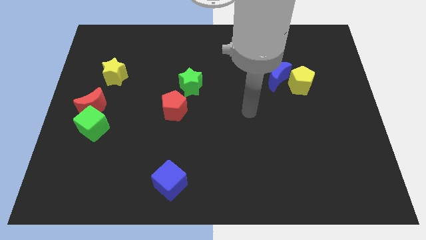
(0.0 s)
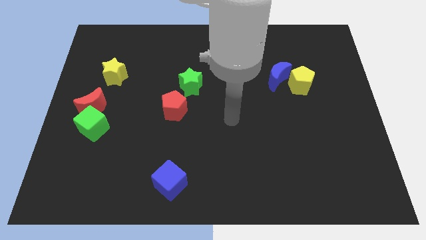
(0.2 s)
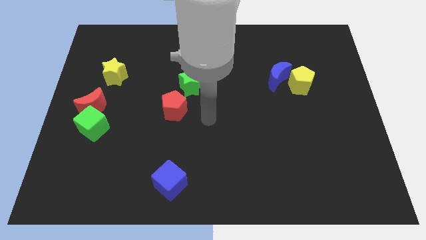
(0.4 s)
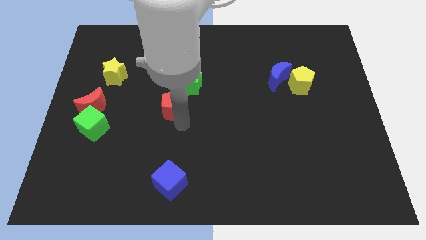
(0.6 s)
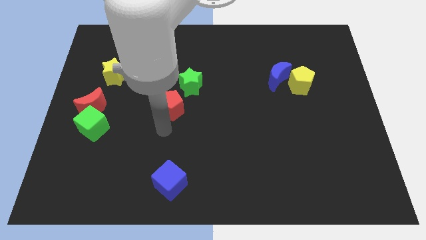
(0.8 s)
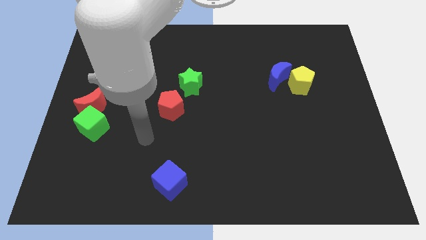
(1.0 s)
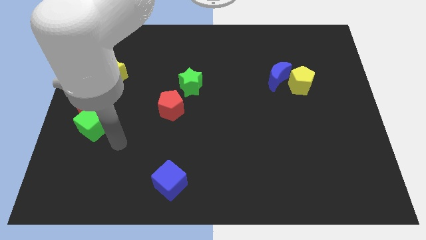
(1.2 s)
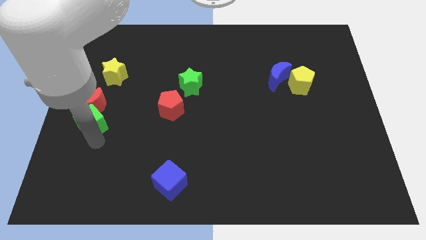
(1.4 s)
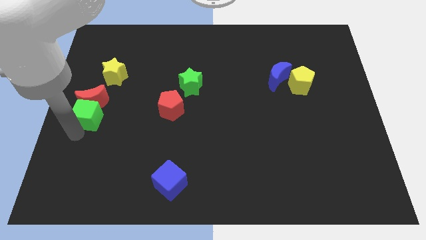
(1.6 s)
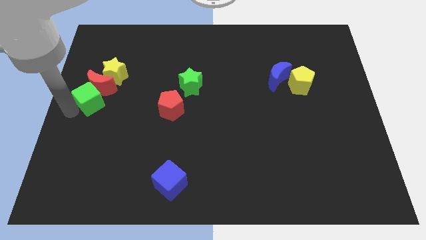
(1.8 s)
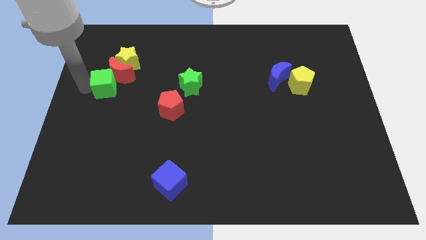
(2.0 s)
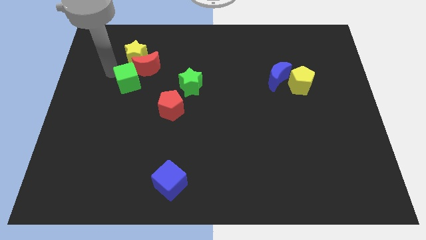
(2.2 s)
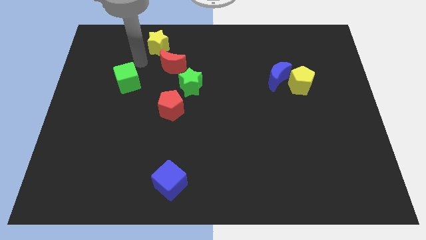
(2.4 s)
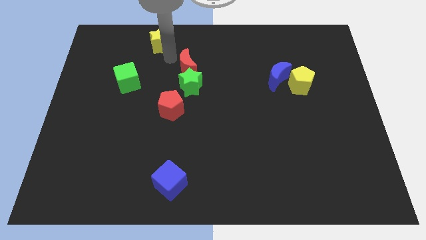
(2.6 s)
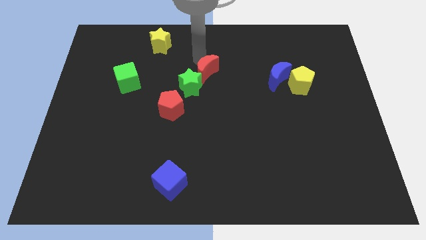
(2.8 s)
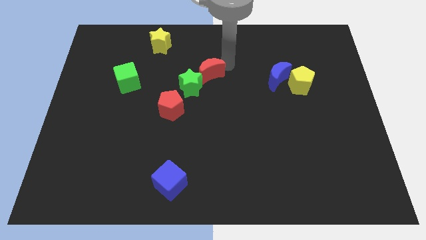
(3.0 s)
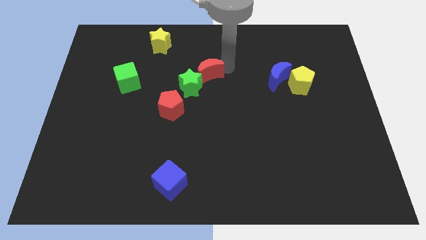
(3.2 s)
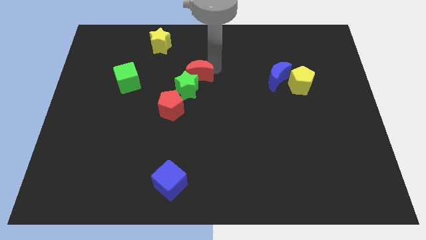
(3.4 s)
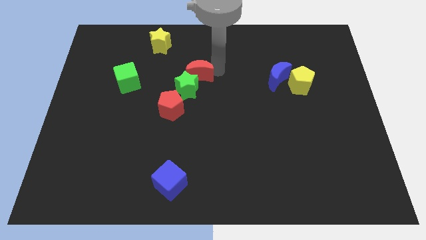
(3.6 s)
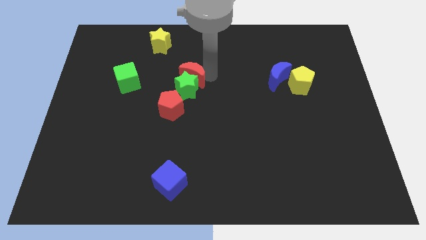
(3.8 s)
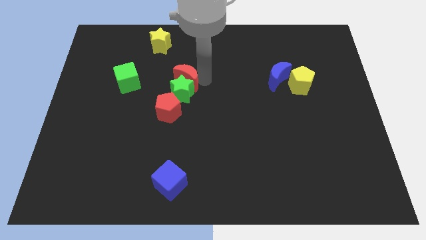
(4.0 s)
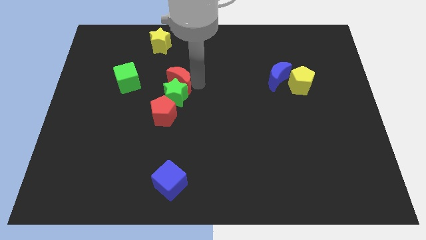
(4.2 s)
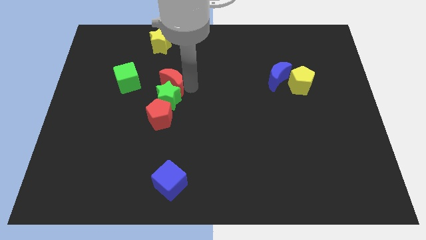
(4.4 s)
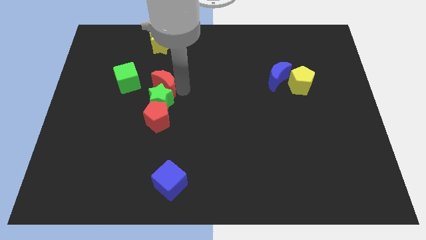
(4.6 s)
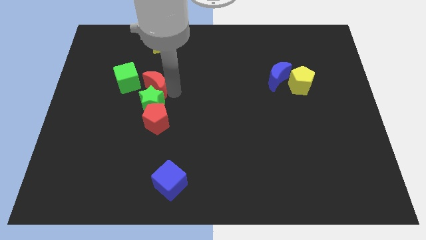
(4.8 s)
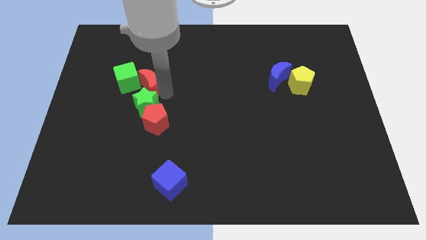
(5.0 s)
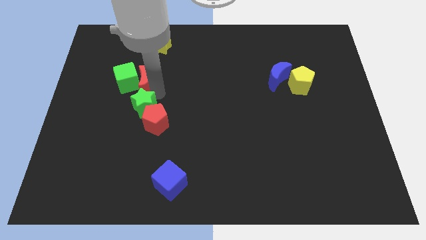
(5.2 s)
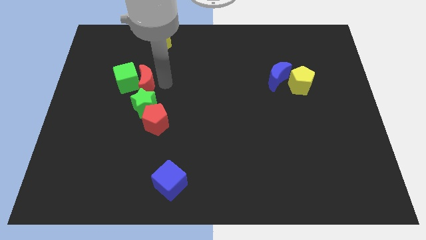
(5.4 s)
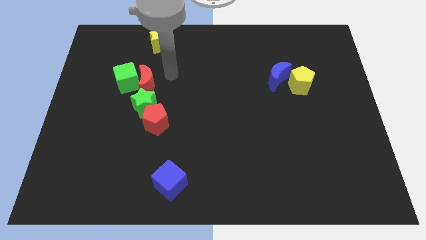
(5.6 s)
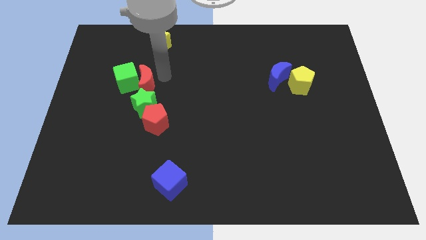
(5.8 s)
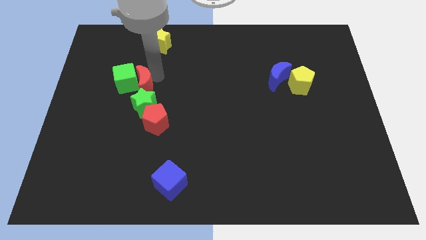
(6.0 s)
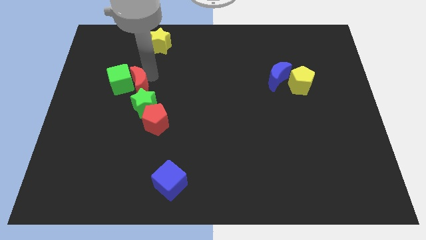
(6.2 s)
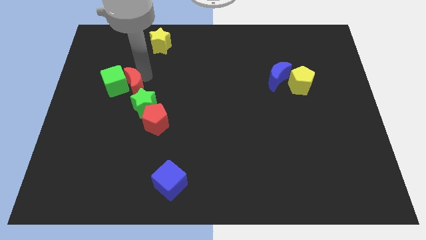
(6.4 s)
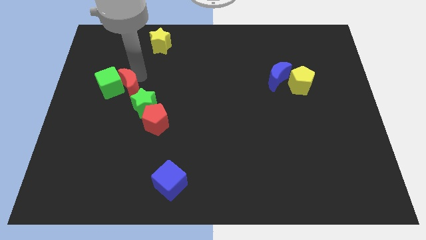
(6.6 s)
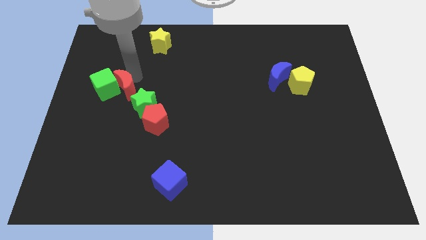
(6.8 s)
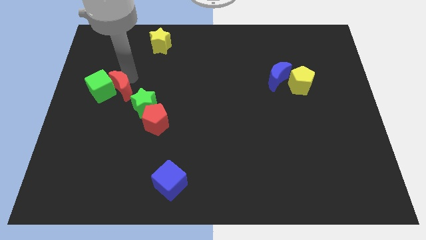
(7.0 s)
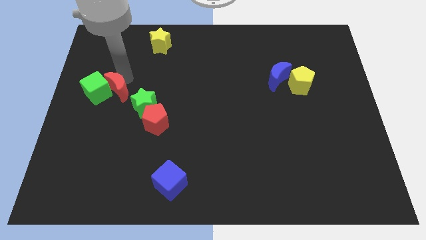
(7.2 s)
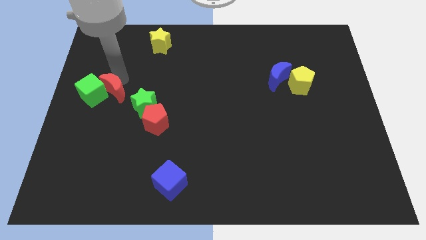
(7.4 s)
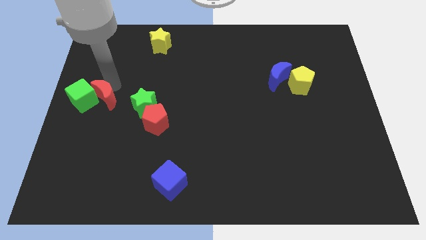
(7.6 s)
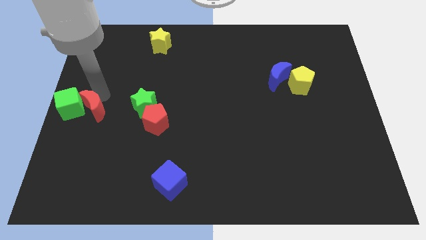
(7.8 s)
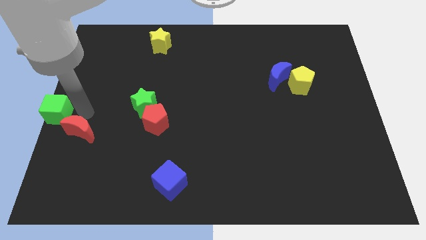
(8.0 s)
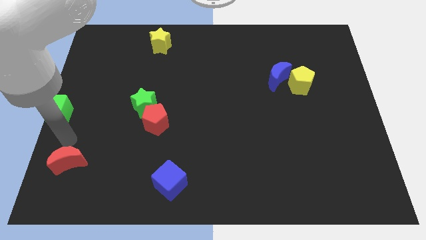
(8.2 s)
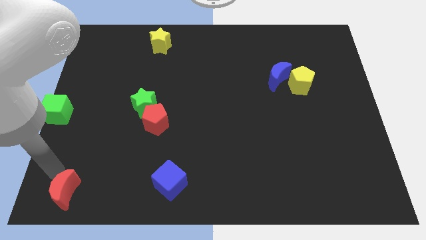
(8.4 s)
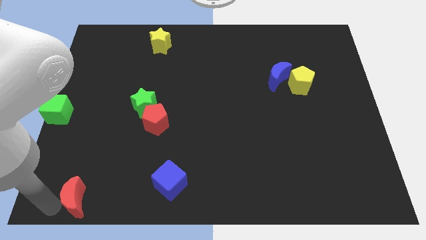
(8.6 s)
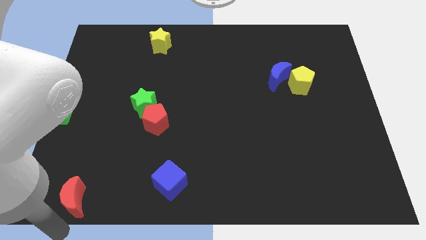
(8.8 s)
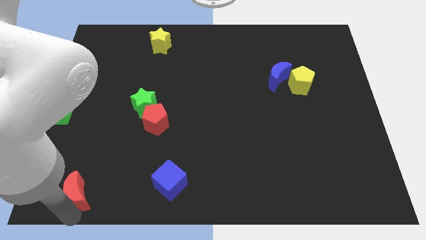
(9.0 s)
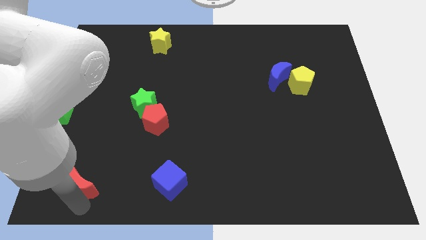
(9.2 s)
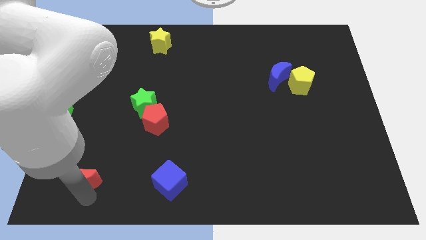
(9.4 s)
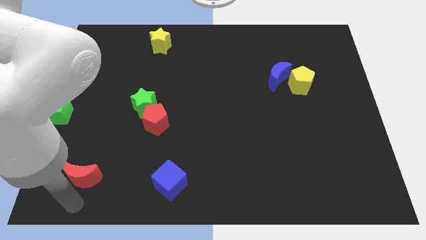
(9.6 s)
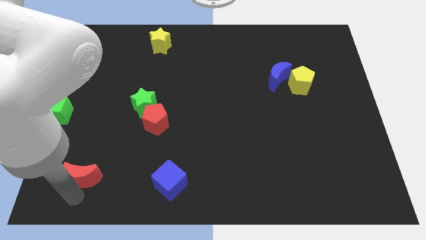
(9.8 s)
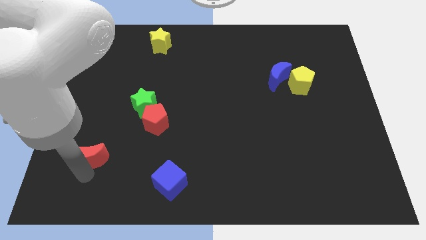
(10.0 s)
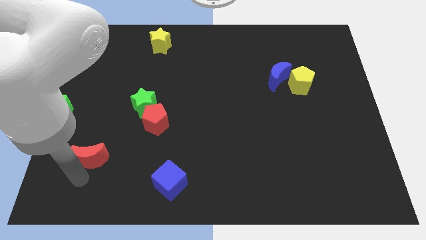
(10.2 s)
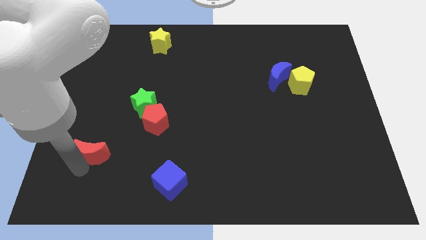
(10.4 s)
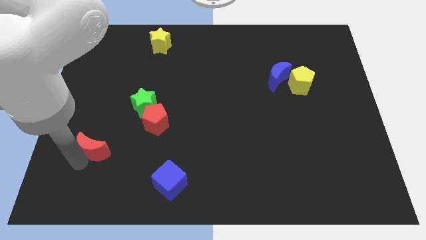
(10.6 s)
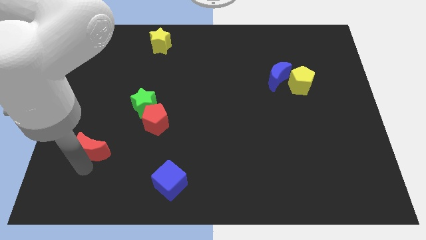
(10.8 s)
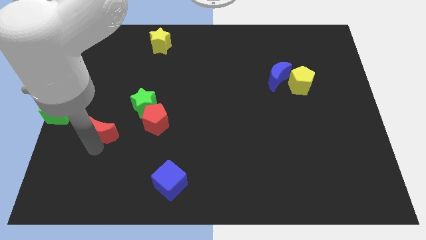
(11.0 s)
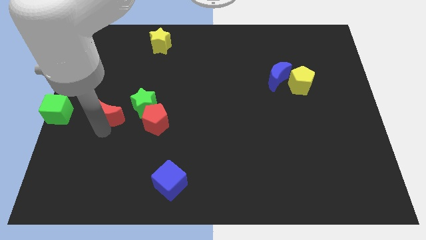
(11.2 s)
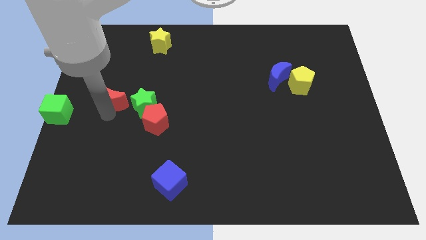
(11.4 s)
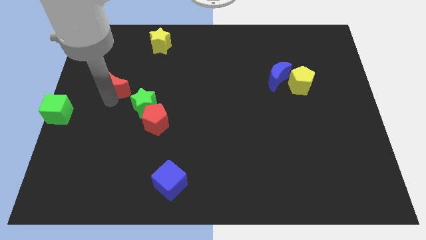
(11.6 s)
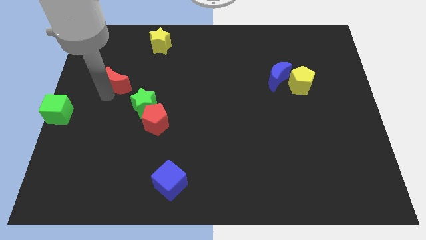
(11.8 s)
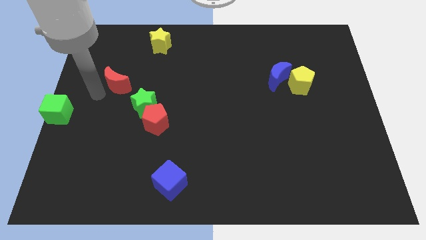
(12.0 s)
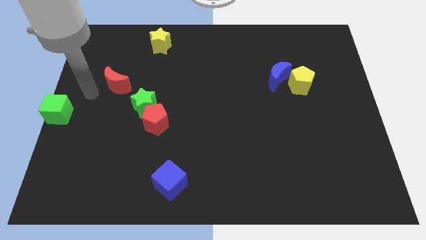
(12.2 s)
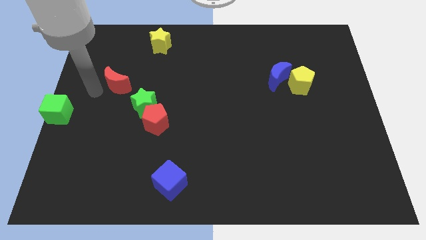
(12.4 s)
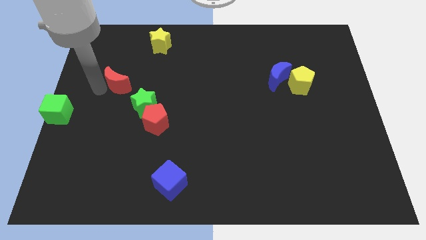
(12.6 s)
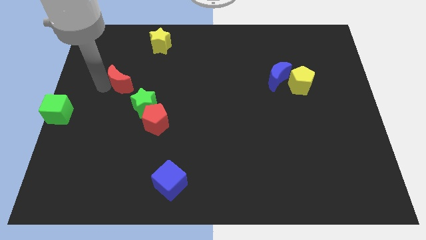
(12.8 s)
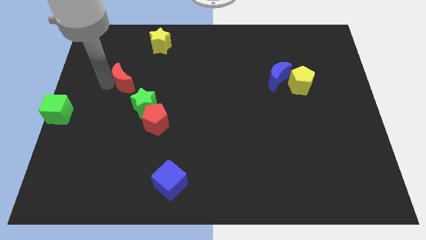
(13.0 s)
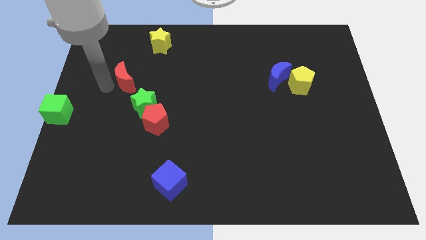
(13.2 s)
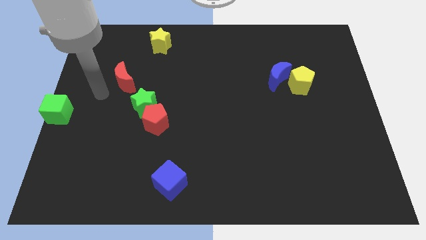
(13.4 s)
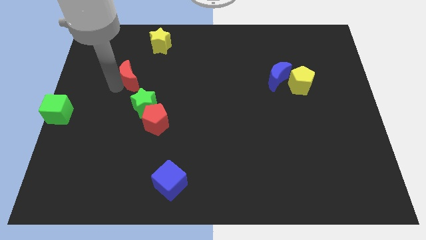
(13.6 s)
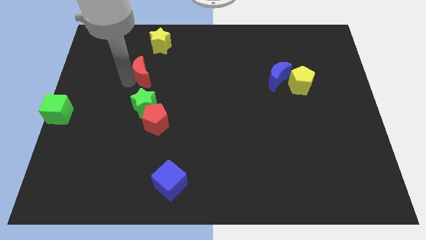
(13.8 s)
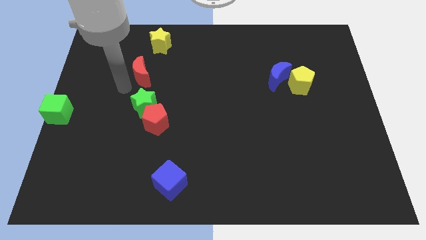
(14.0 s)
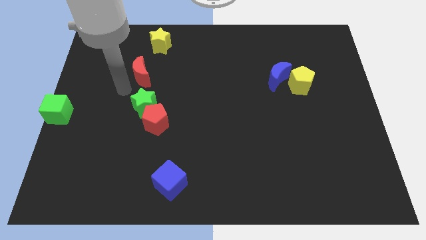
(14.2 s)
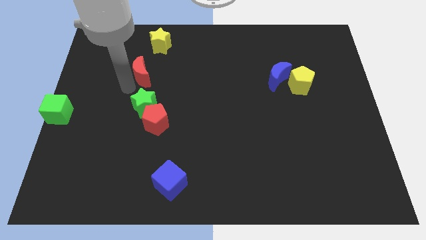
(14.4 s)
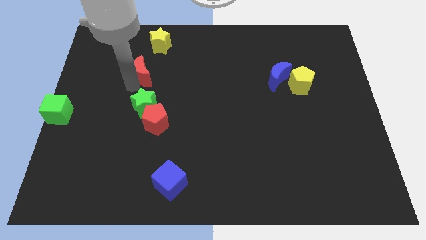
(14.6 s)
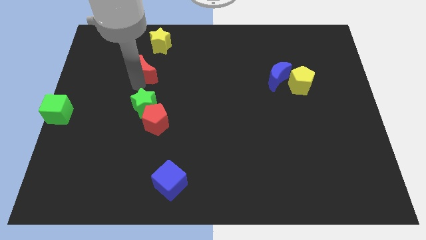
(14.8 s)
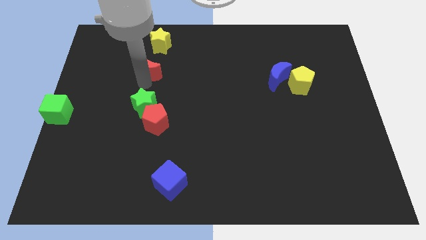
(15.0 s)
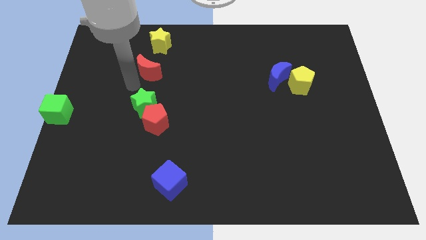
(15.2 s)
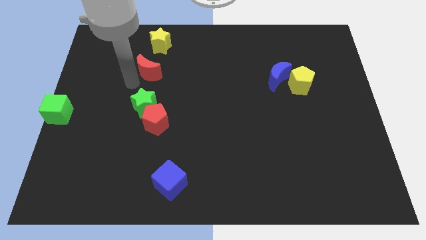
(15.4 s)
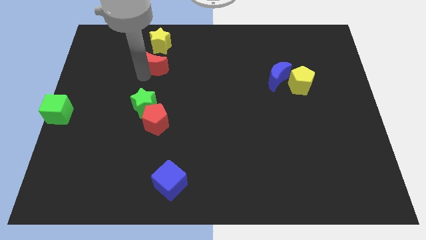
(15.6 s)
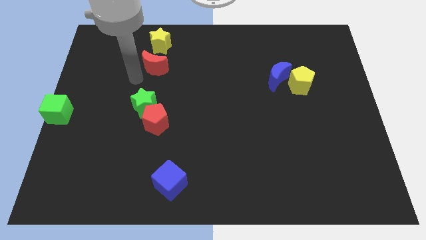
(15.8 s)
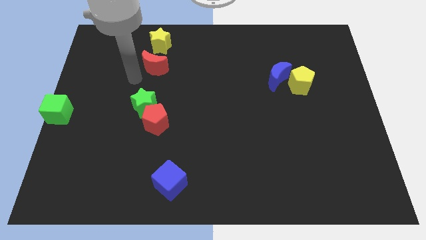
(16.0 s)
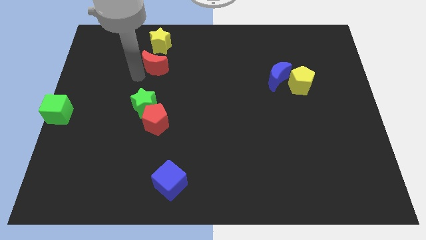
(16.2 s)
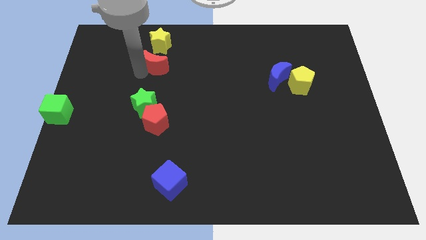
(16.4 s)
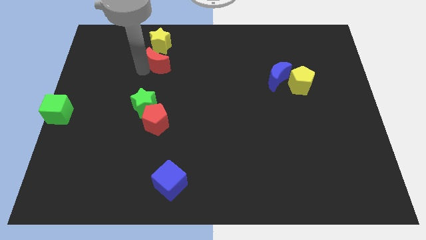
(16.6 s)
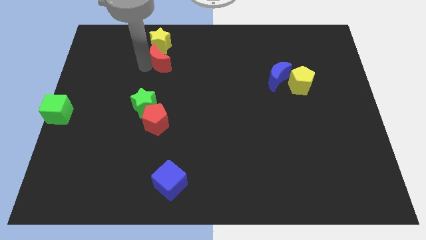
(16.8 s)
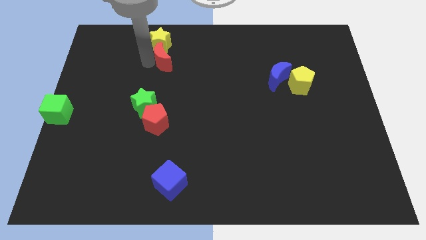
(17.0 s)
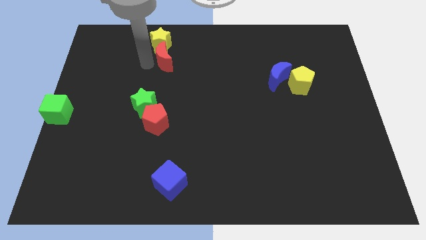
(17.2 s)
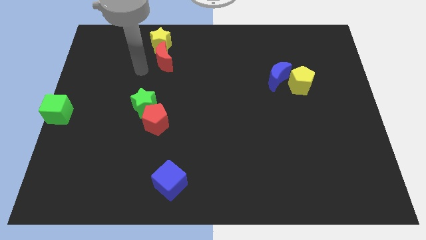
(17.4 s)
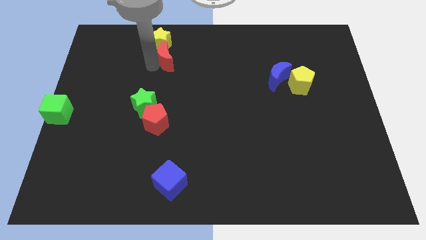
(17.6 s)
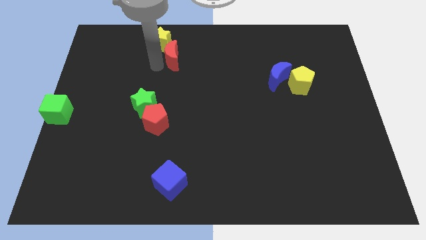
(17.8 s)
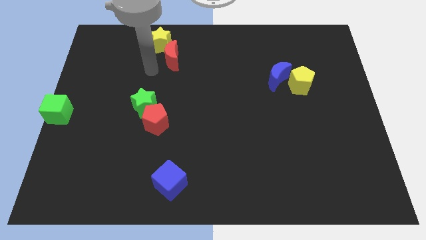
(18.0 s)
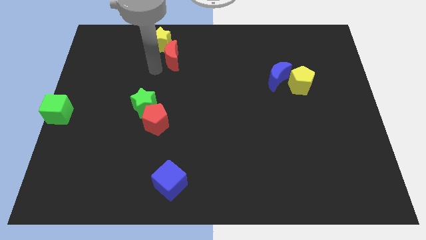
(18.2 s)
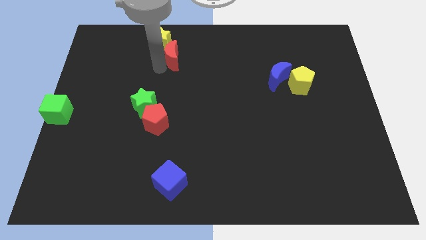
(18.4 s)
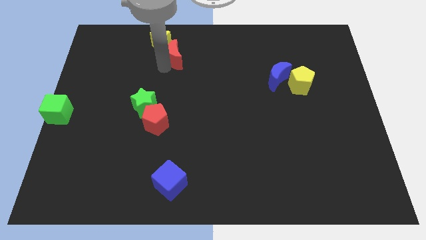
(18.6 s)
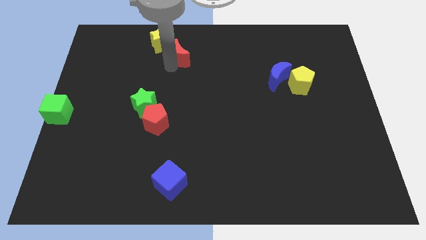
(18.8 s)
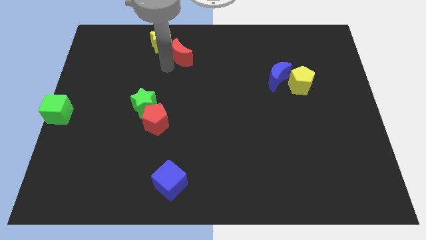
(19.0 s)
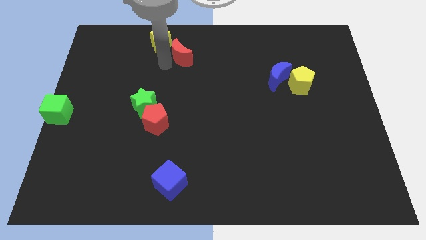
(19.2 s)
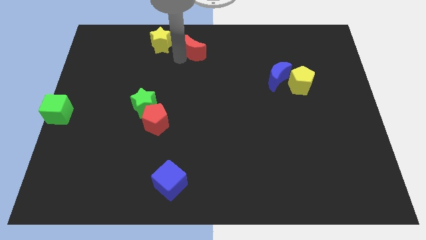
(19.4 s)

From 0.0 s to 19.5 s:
put the red moon to the towards your base
